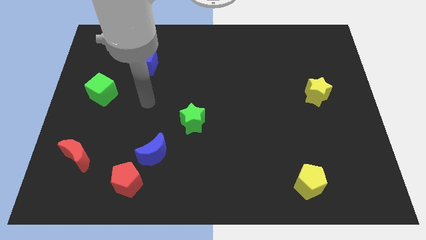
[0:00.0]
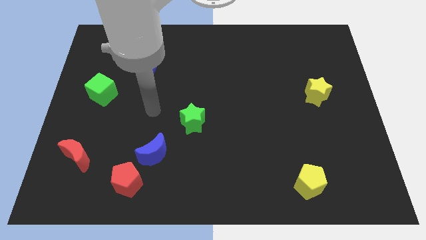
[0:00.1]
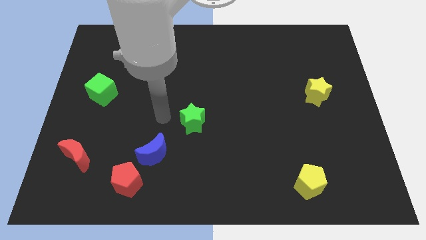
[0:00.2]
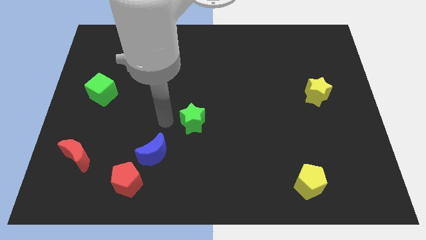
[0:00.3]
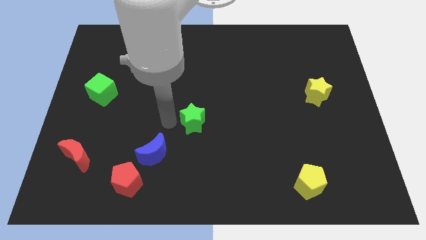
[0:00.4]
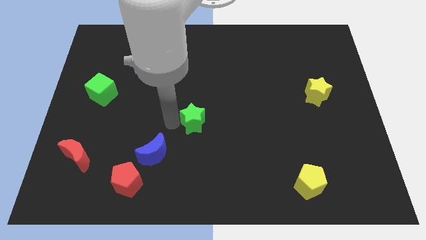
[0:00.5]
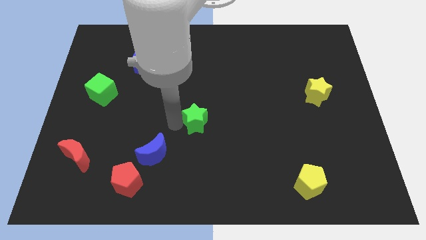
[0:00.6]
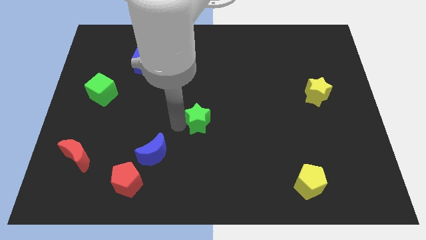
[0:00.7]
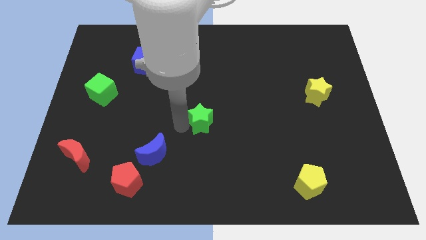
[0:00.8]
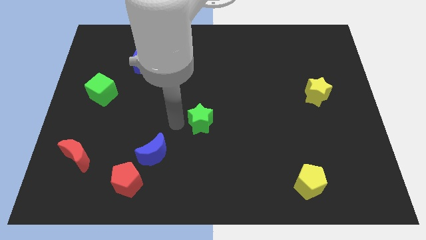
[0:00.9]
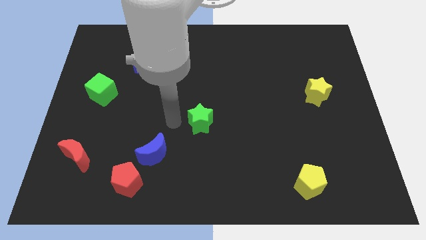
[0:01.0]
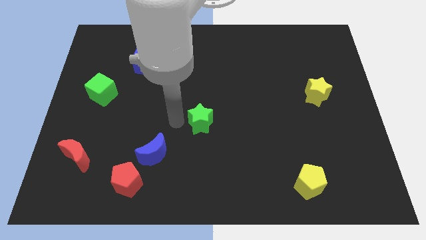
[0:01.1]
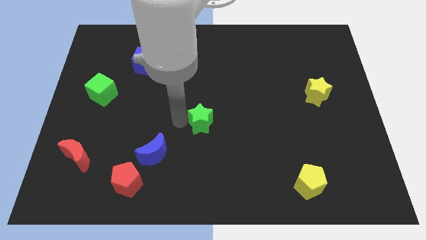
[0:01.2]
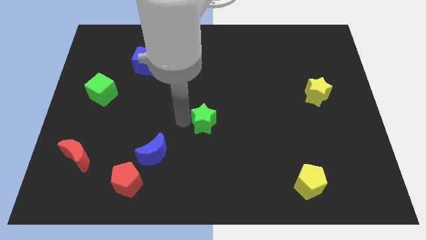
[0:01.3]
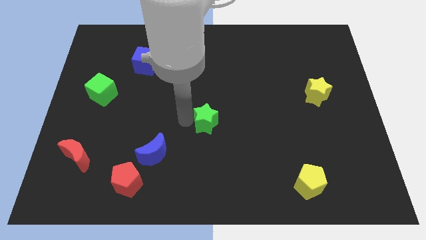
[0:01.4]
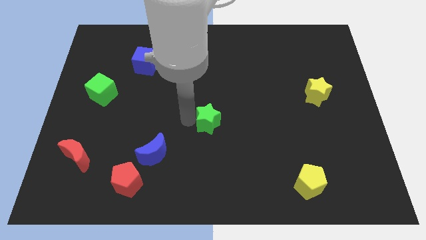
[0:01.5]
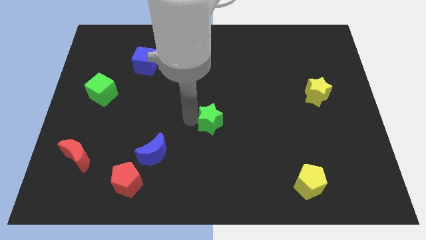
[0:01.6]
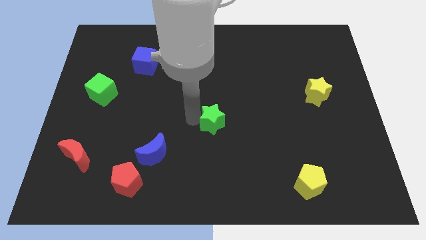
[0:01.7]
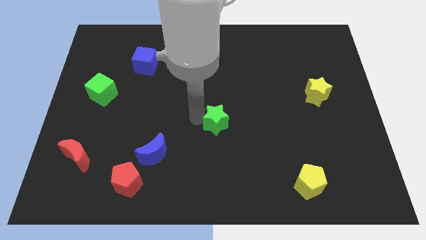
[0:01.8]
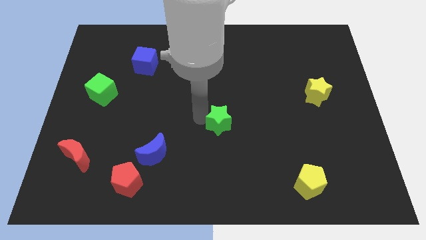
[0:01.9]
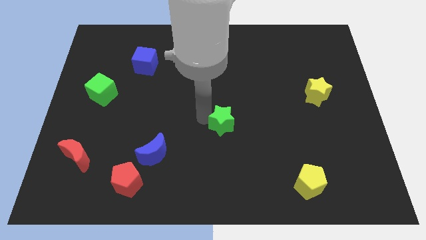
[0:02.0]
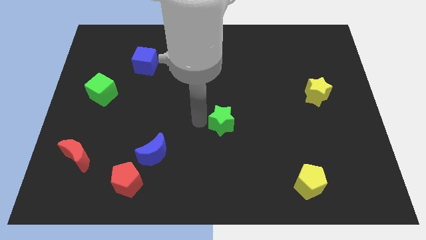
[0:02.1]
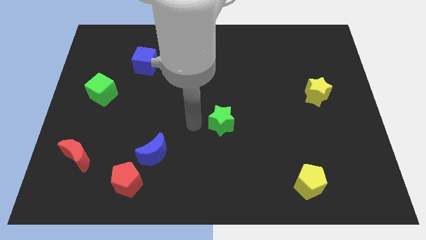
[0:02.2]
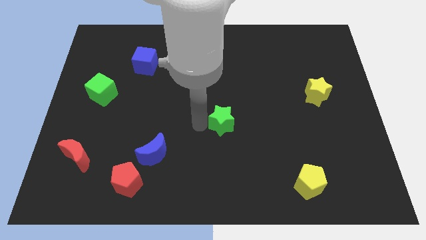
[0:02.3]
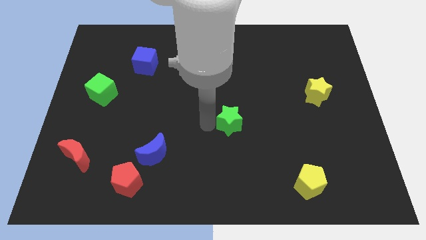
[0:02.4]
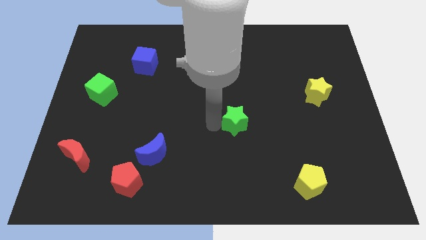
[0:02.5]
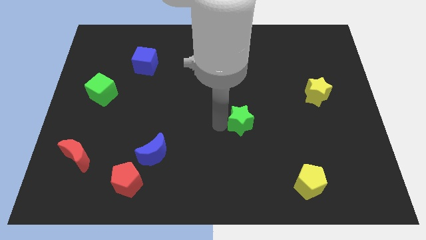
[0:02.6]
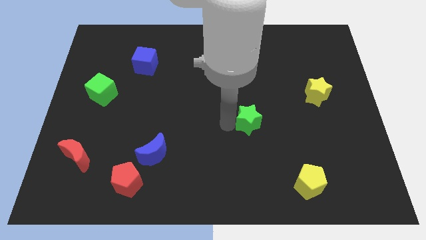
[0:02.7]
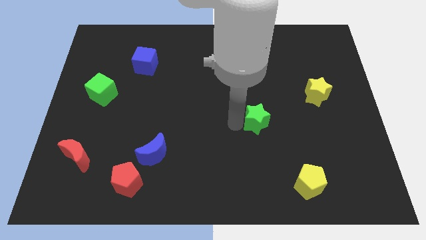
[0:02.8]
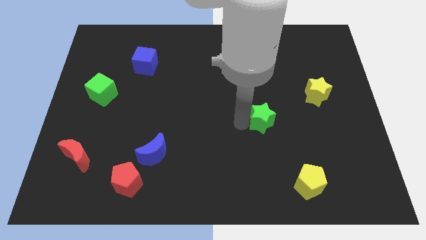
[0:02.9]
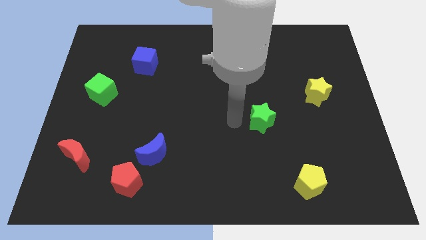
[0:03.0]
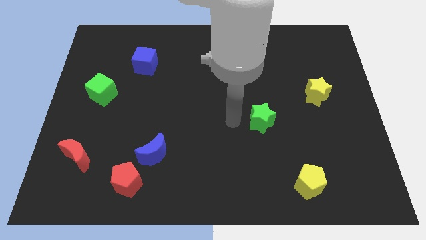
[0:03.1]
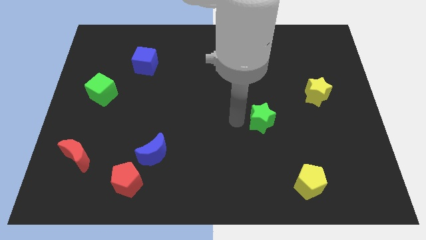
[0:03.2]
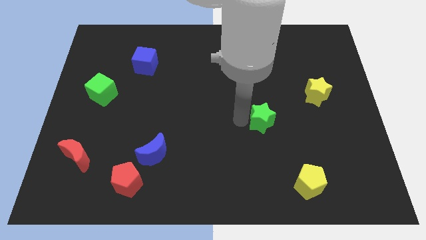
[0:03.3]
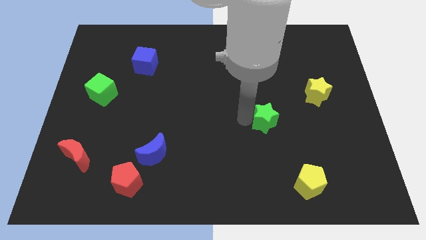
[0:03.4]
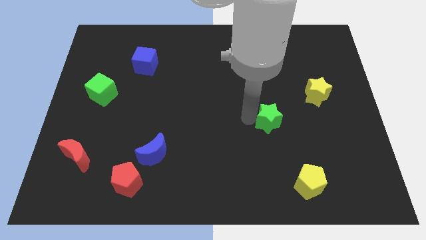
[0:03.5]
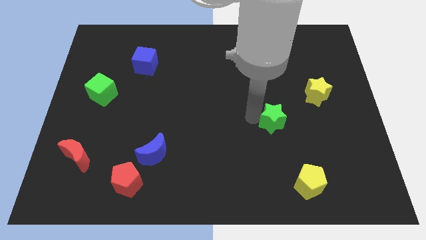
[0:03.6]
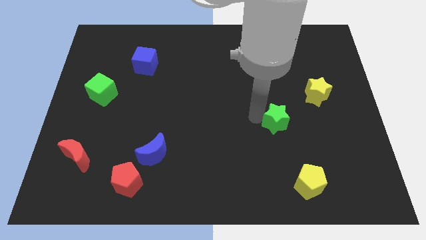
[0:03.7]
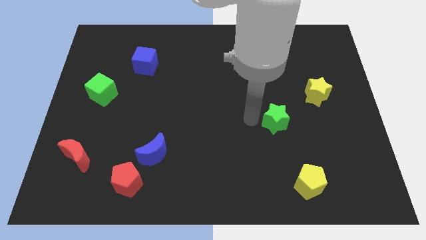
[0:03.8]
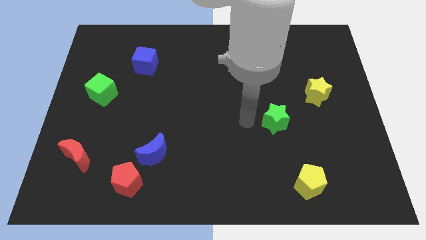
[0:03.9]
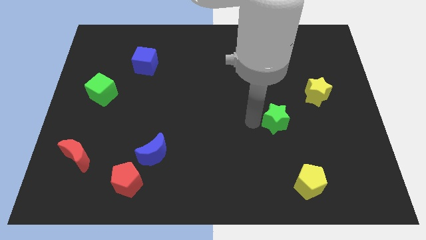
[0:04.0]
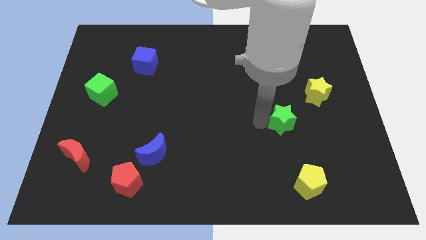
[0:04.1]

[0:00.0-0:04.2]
slide the green star to the right

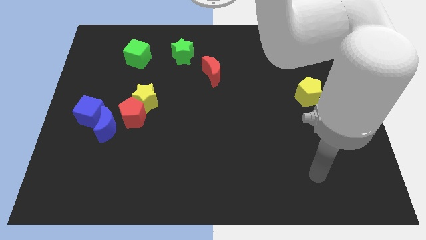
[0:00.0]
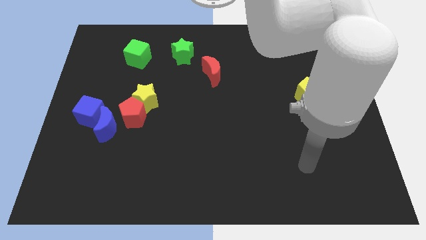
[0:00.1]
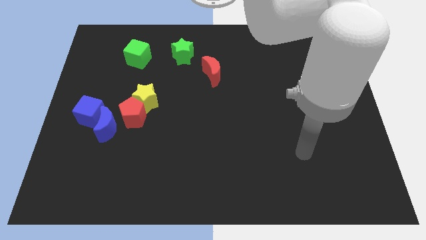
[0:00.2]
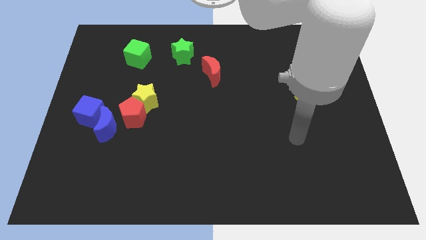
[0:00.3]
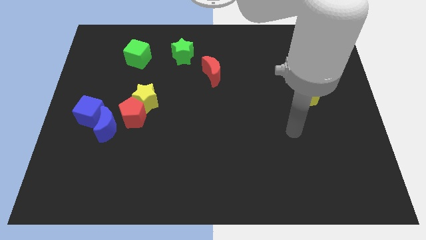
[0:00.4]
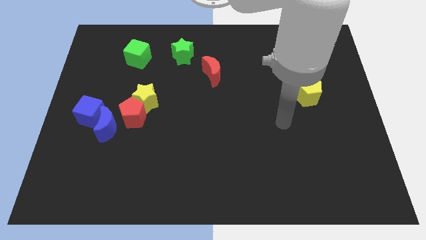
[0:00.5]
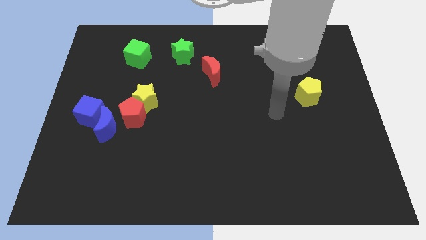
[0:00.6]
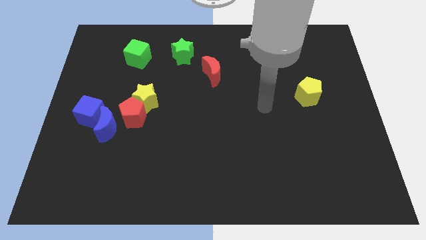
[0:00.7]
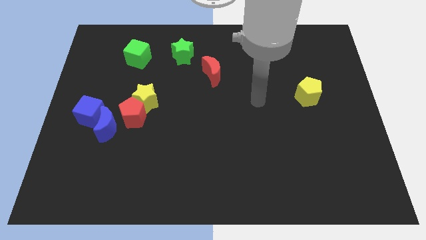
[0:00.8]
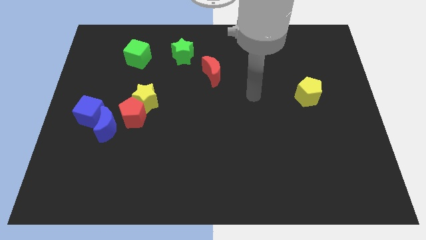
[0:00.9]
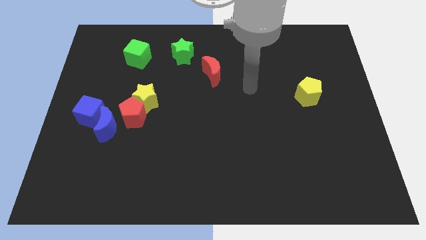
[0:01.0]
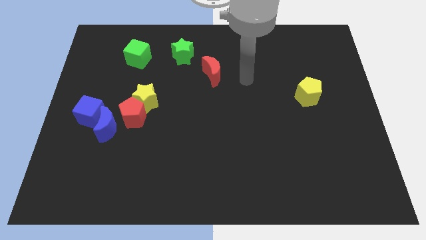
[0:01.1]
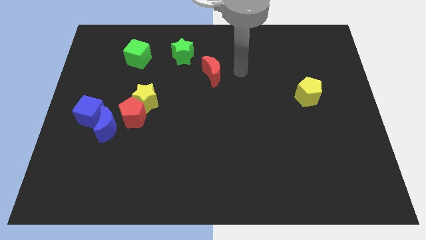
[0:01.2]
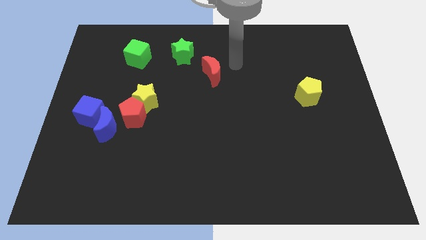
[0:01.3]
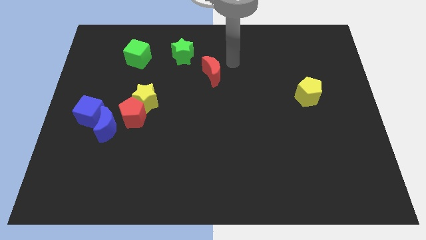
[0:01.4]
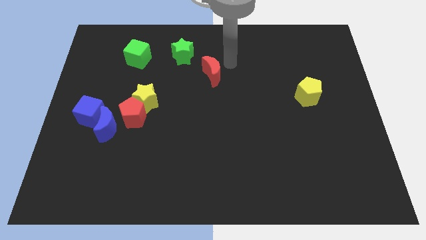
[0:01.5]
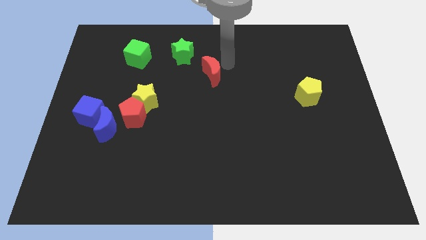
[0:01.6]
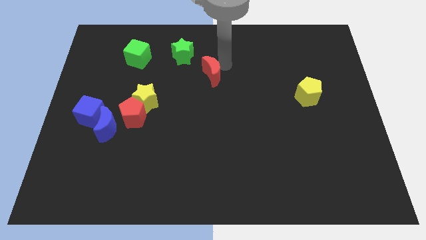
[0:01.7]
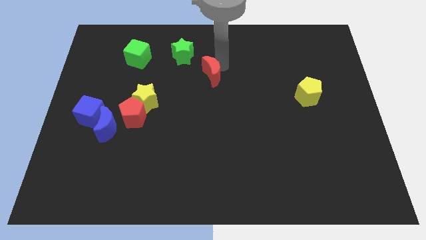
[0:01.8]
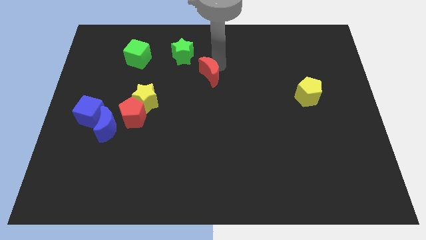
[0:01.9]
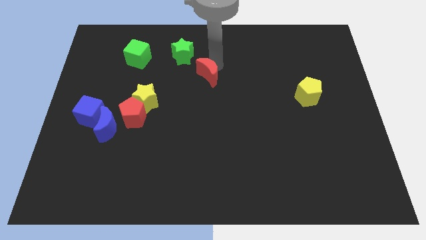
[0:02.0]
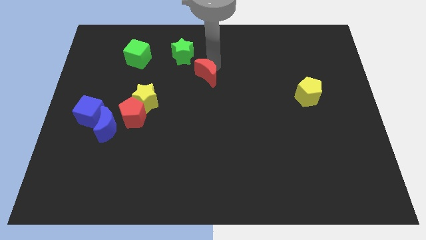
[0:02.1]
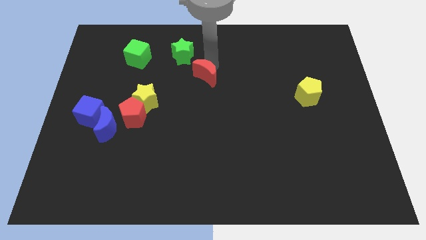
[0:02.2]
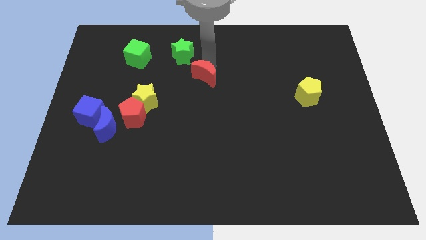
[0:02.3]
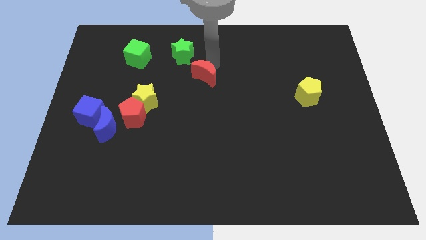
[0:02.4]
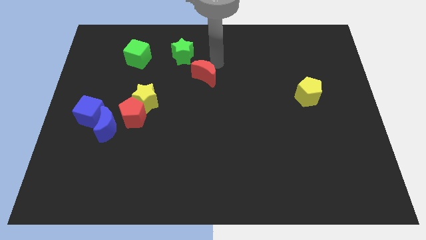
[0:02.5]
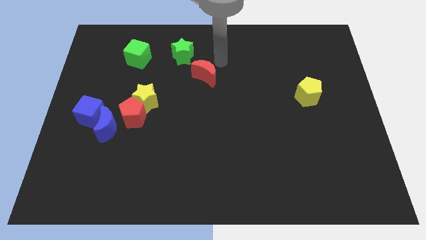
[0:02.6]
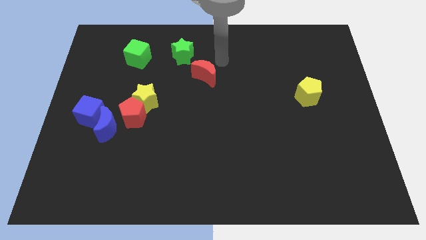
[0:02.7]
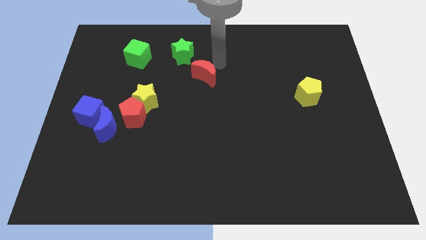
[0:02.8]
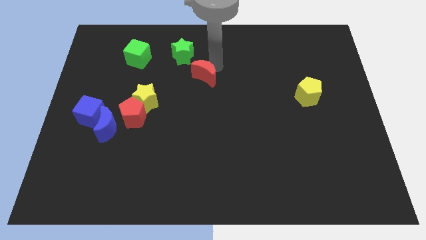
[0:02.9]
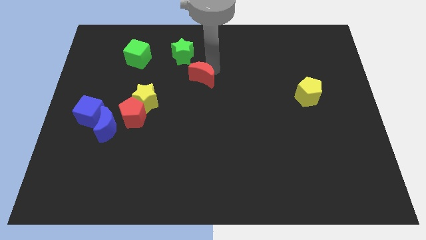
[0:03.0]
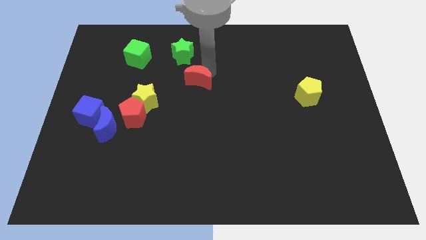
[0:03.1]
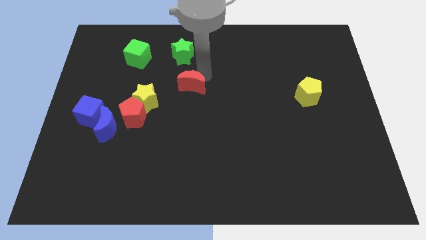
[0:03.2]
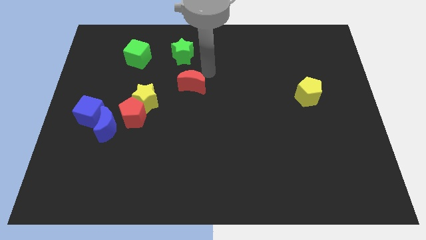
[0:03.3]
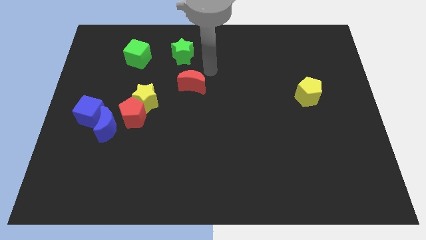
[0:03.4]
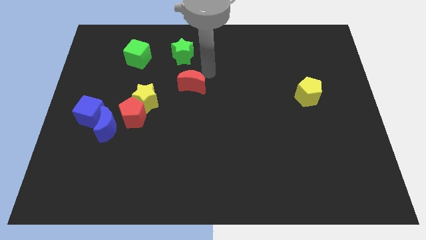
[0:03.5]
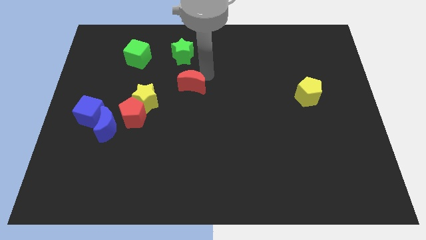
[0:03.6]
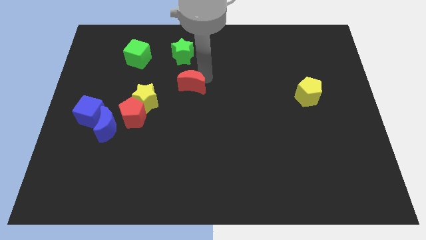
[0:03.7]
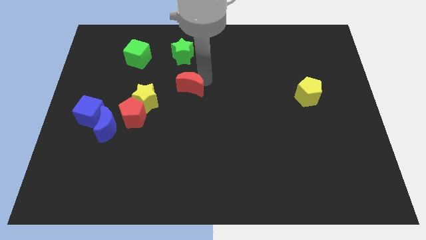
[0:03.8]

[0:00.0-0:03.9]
push the red moon downwards and to the left diagonally somewhat
